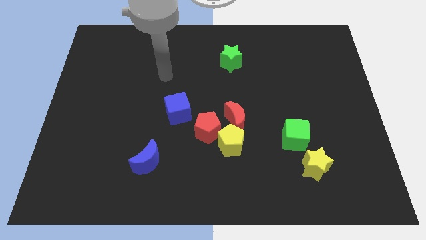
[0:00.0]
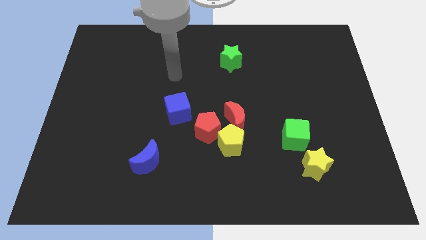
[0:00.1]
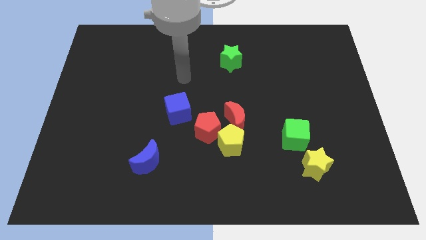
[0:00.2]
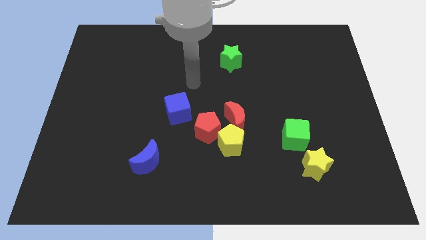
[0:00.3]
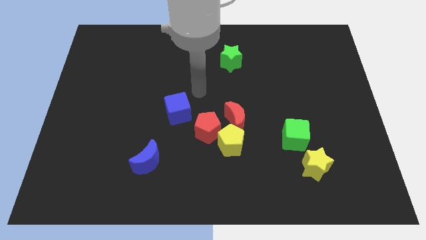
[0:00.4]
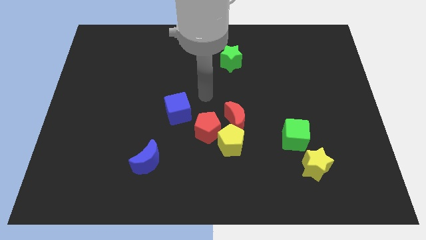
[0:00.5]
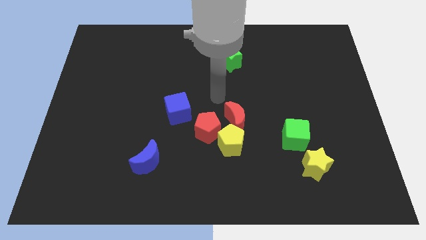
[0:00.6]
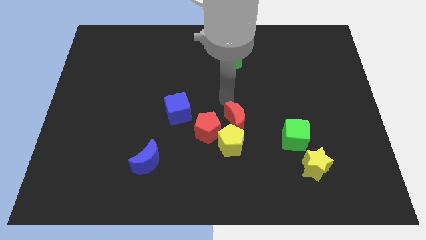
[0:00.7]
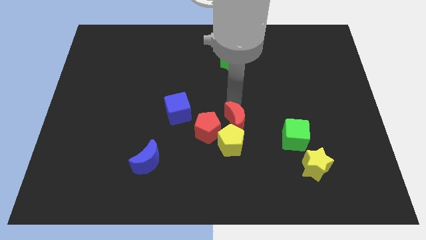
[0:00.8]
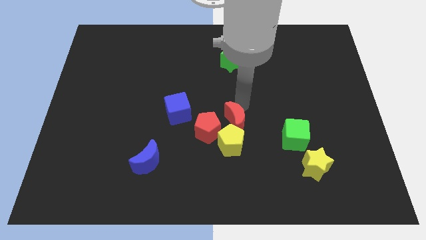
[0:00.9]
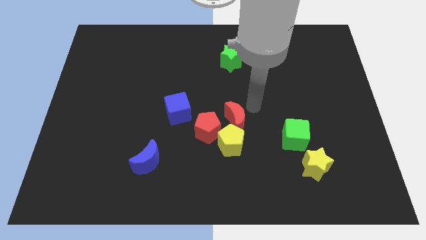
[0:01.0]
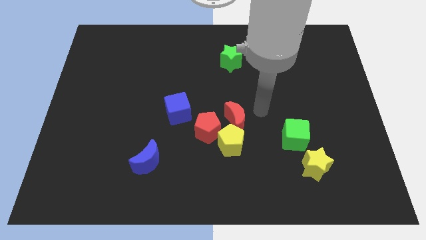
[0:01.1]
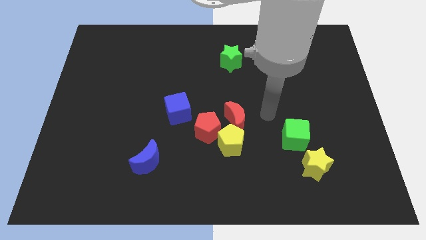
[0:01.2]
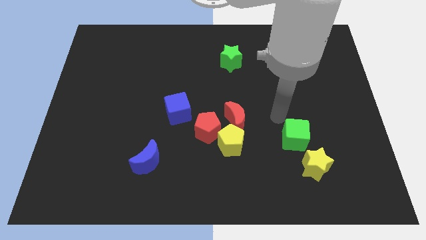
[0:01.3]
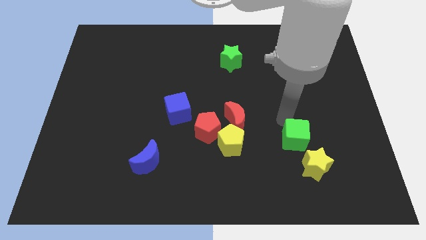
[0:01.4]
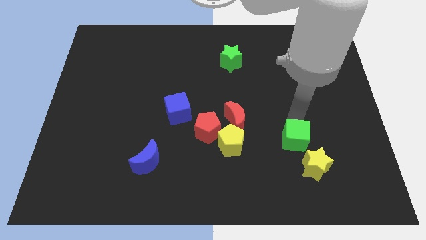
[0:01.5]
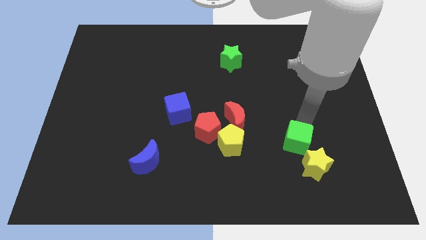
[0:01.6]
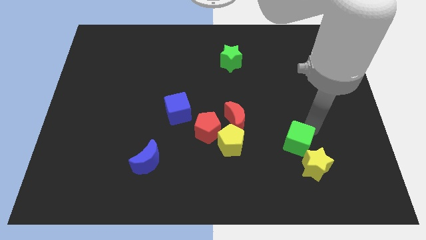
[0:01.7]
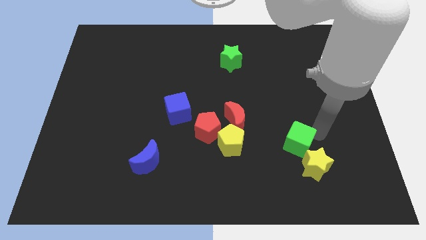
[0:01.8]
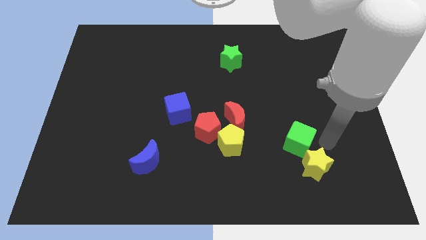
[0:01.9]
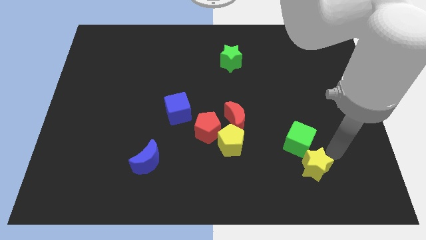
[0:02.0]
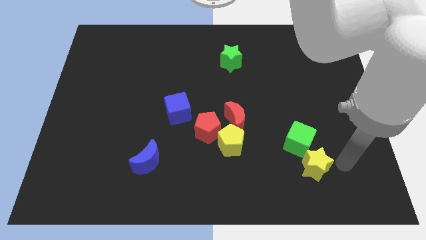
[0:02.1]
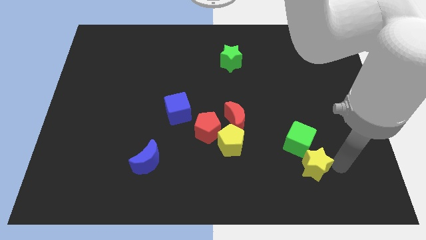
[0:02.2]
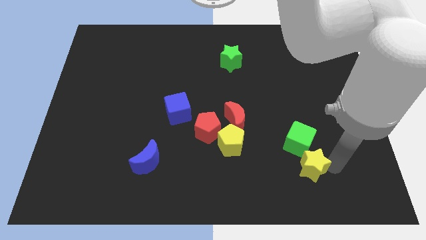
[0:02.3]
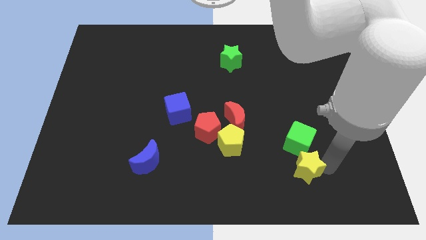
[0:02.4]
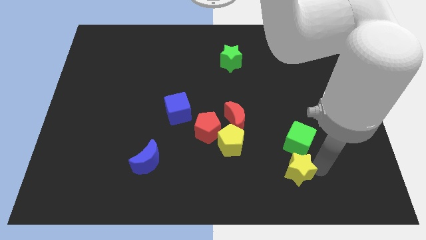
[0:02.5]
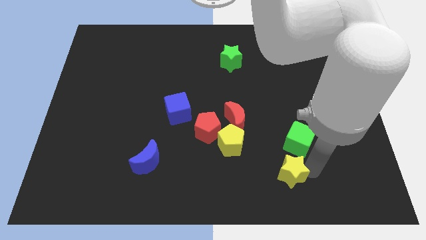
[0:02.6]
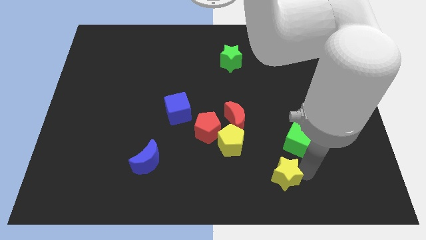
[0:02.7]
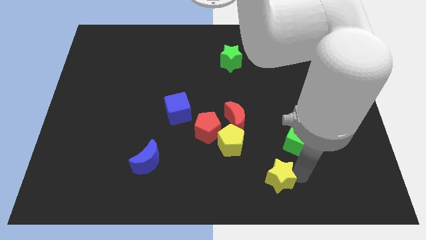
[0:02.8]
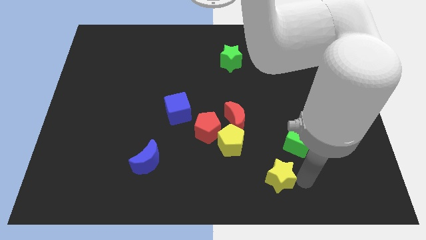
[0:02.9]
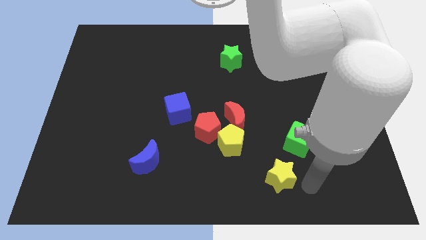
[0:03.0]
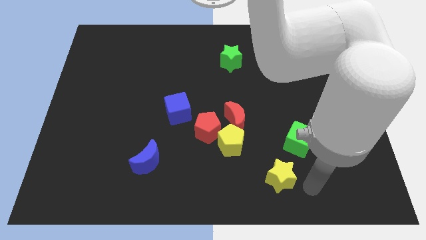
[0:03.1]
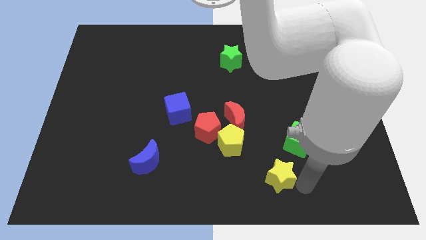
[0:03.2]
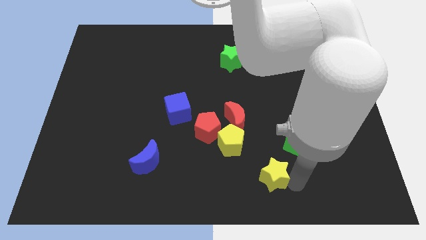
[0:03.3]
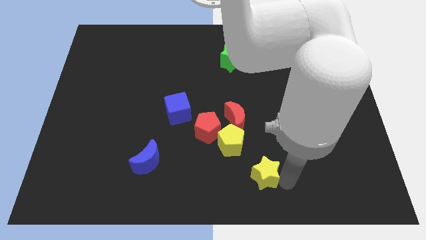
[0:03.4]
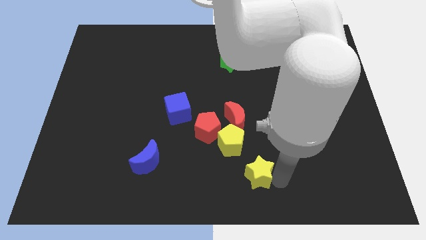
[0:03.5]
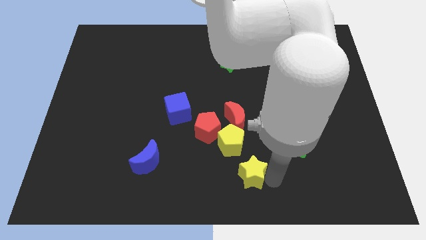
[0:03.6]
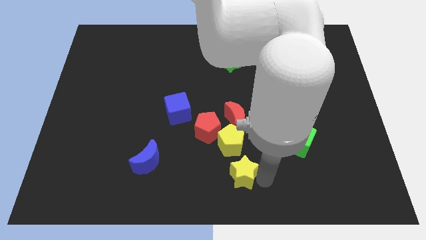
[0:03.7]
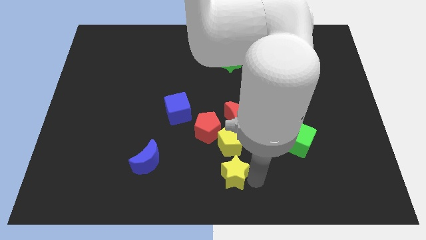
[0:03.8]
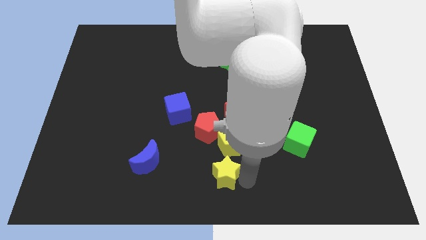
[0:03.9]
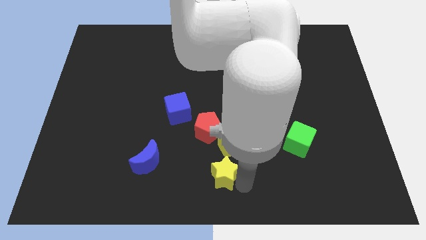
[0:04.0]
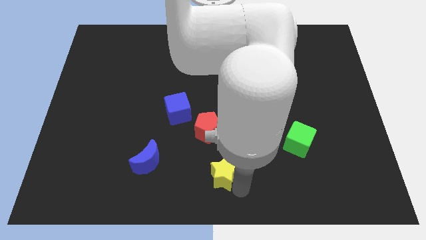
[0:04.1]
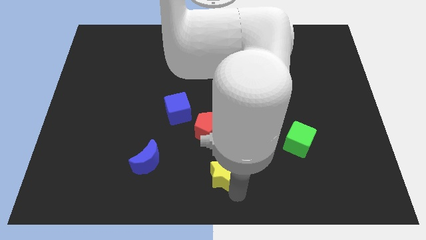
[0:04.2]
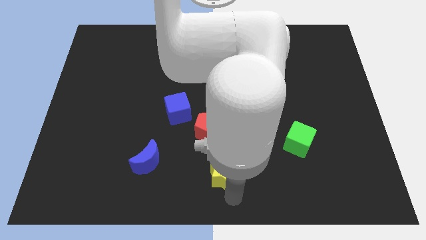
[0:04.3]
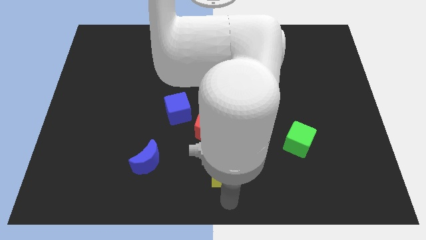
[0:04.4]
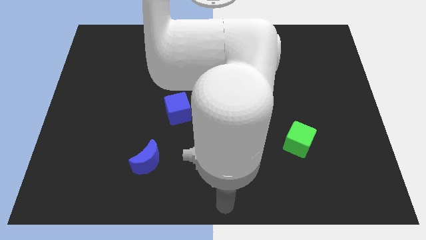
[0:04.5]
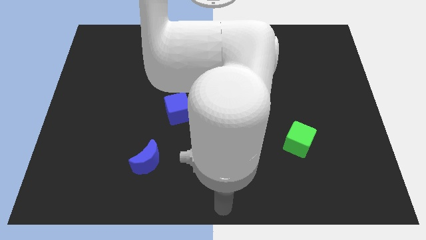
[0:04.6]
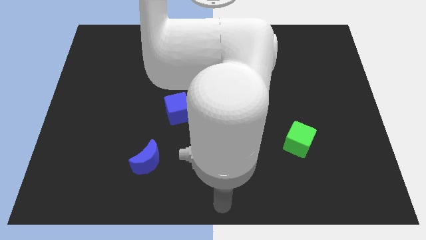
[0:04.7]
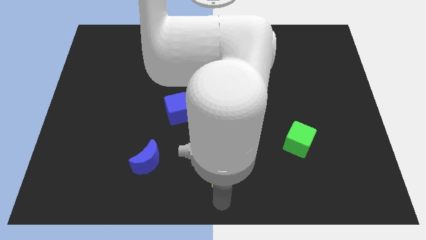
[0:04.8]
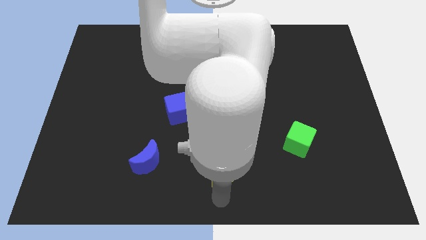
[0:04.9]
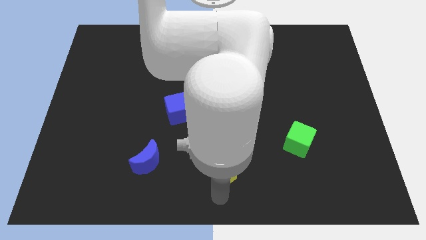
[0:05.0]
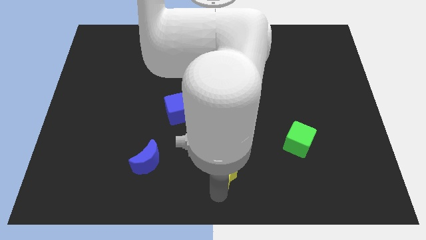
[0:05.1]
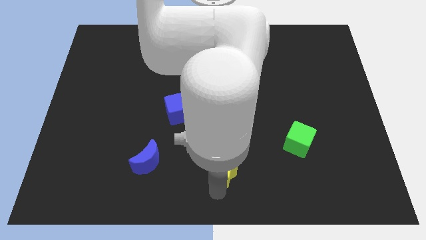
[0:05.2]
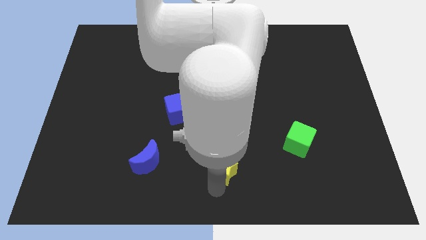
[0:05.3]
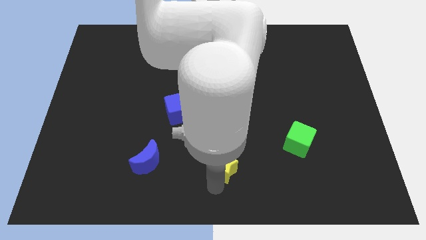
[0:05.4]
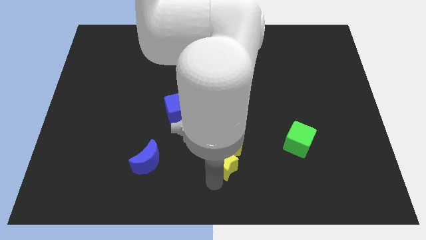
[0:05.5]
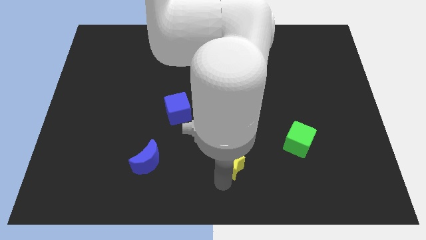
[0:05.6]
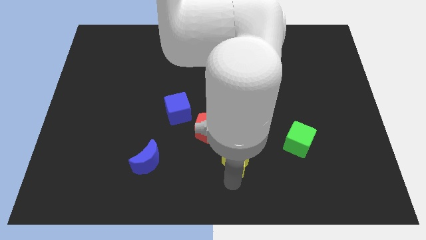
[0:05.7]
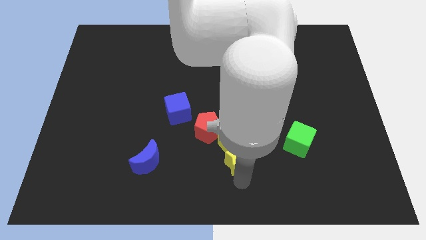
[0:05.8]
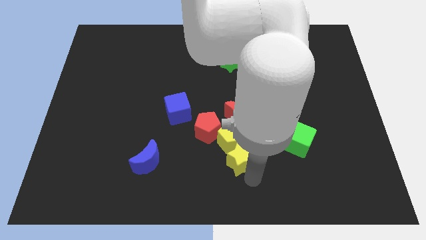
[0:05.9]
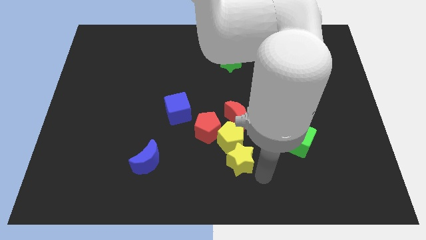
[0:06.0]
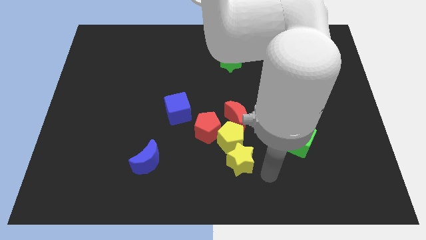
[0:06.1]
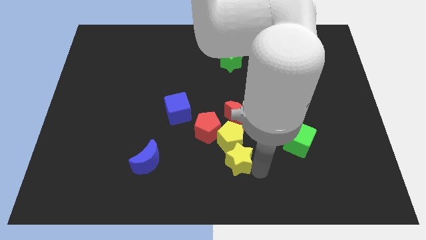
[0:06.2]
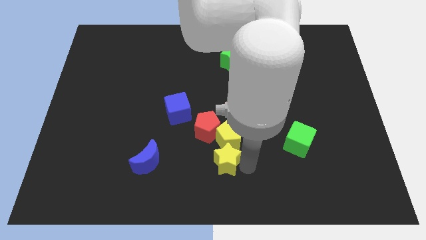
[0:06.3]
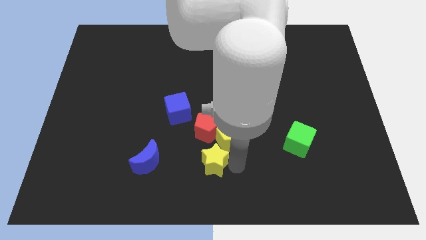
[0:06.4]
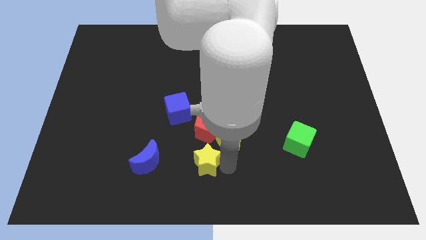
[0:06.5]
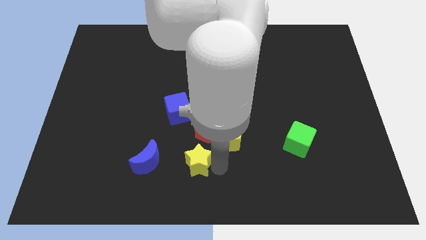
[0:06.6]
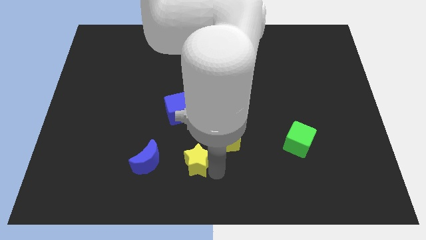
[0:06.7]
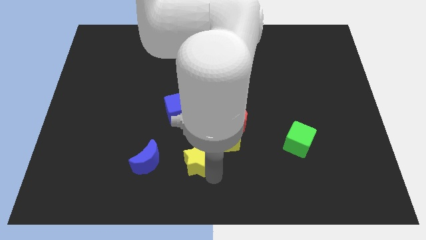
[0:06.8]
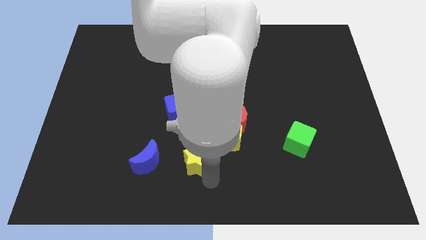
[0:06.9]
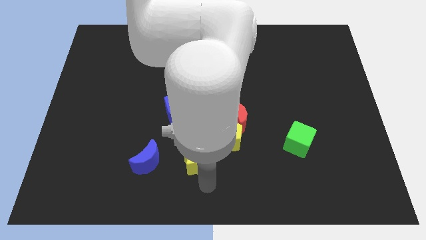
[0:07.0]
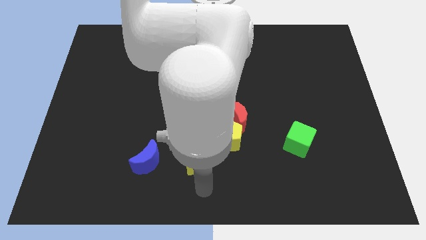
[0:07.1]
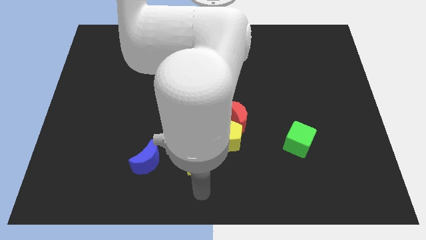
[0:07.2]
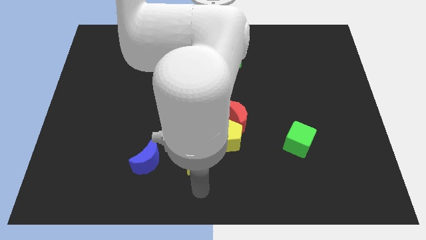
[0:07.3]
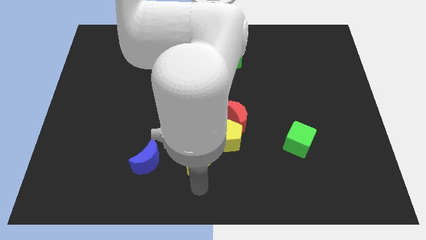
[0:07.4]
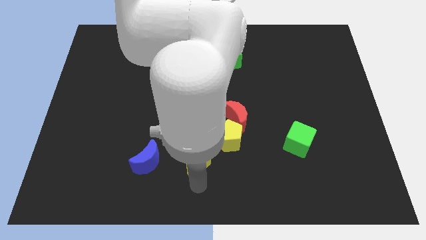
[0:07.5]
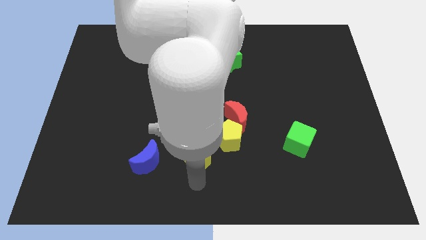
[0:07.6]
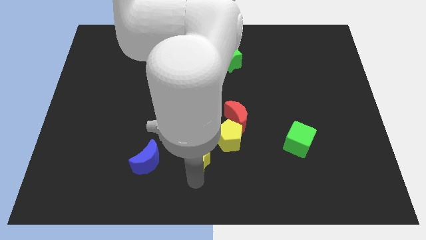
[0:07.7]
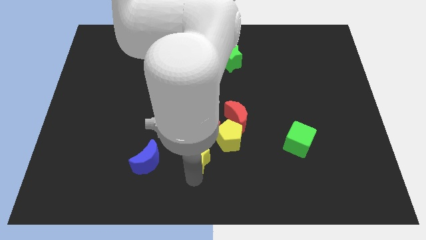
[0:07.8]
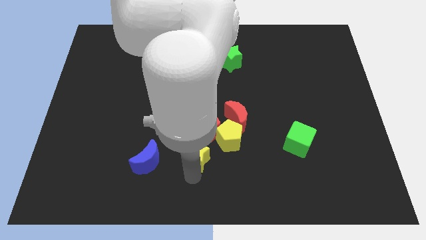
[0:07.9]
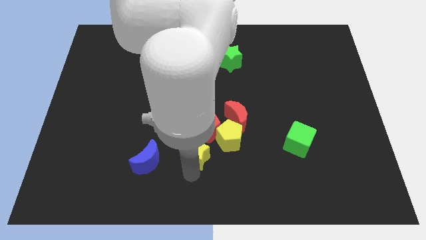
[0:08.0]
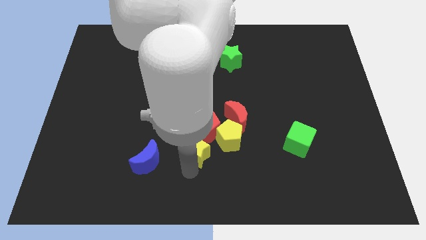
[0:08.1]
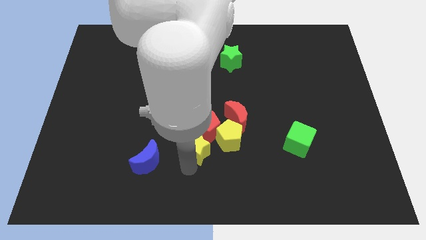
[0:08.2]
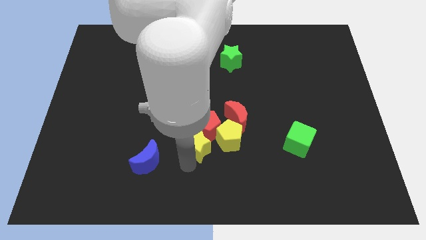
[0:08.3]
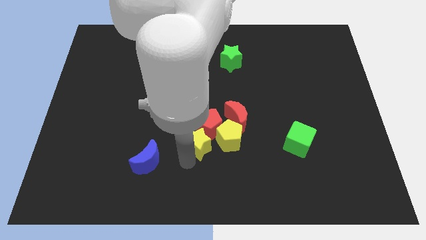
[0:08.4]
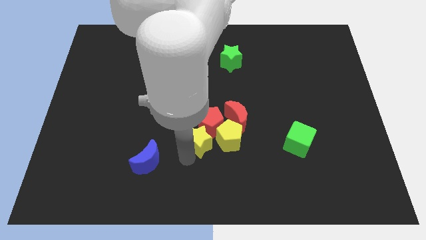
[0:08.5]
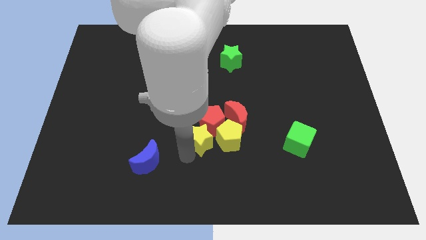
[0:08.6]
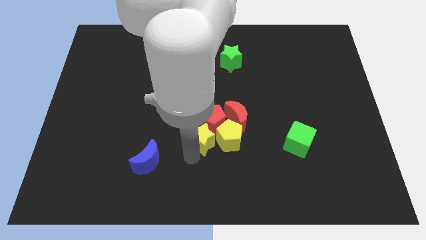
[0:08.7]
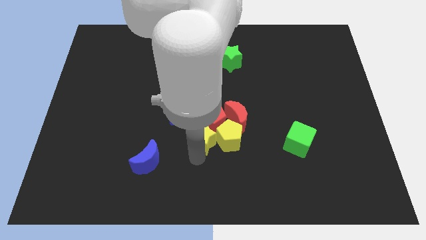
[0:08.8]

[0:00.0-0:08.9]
slide the yellow star diagonally up and to the left of the yellow pentagon
